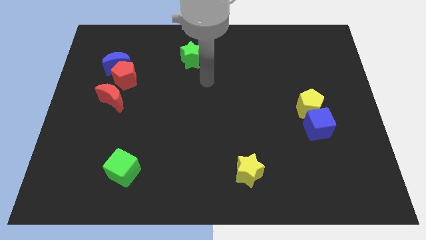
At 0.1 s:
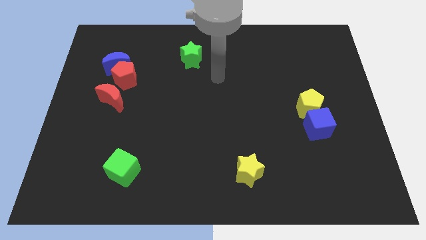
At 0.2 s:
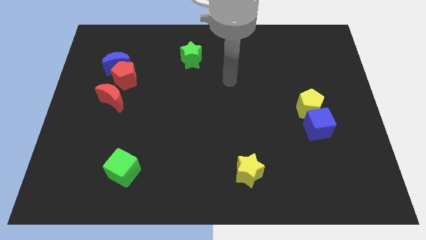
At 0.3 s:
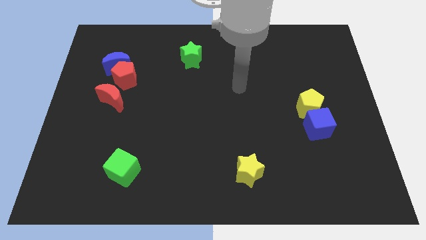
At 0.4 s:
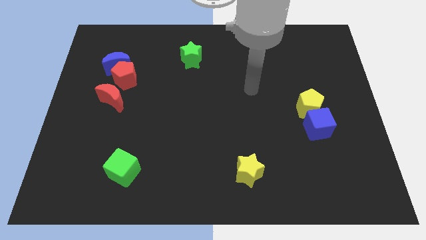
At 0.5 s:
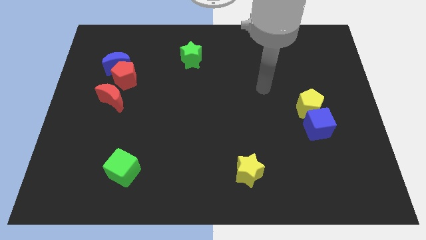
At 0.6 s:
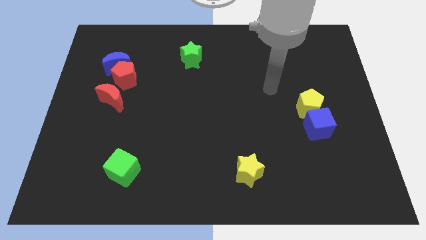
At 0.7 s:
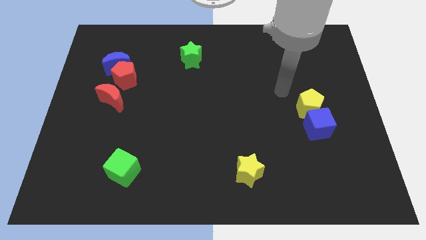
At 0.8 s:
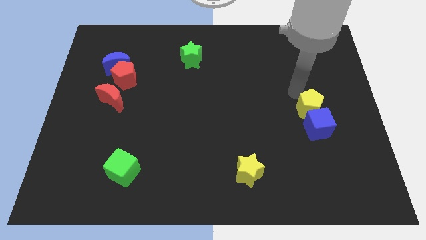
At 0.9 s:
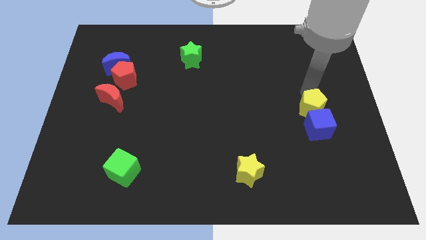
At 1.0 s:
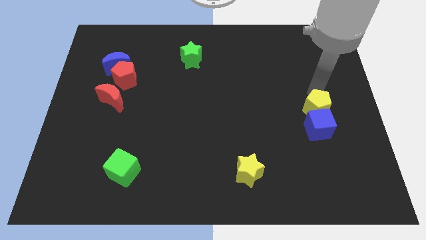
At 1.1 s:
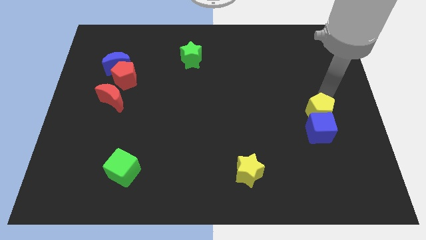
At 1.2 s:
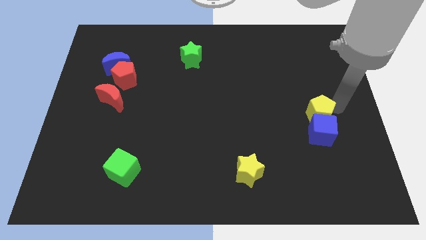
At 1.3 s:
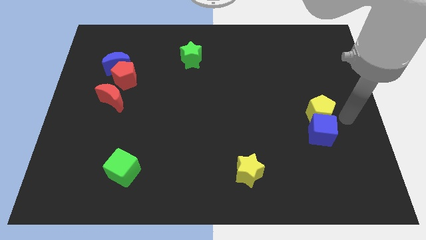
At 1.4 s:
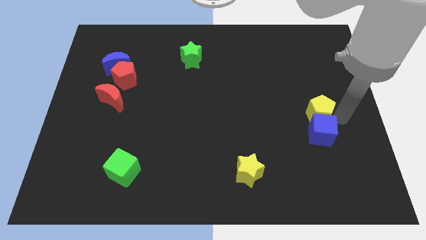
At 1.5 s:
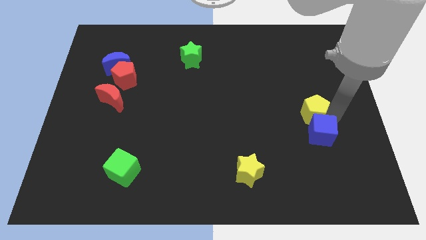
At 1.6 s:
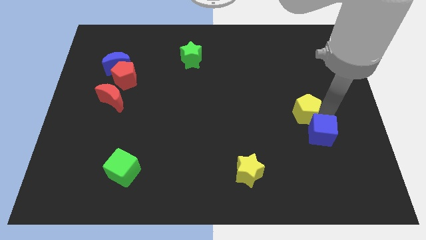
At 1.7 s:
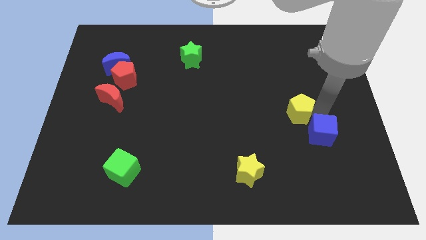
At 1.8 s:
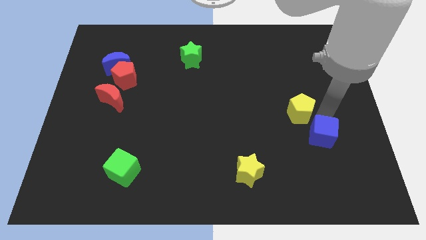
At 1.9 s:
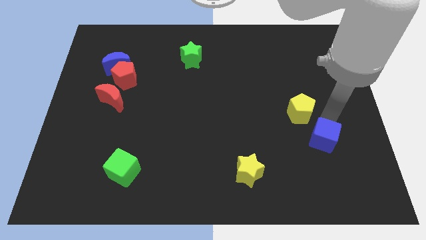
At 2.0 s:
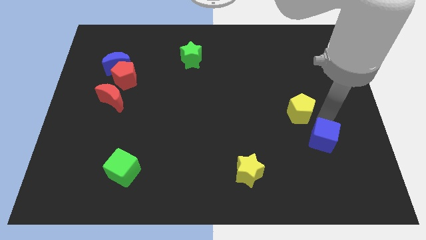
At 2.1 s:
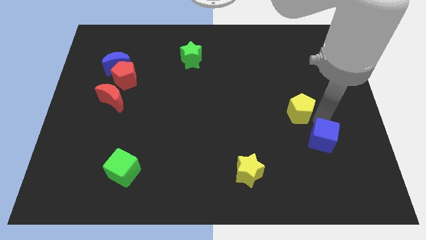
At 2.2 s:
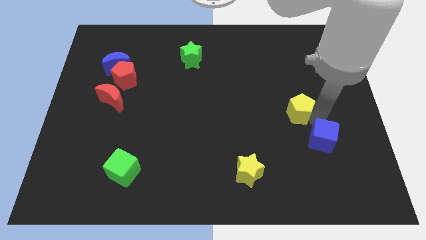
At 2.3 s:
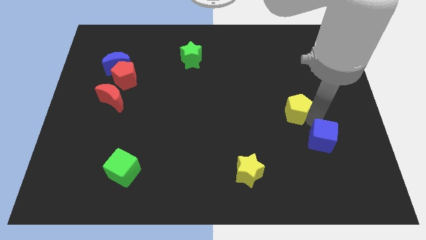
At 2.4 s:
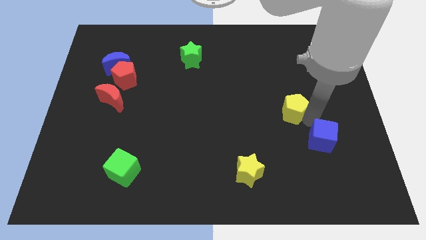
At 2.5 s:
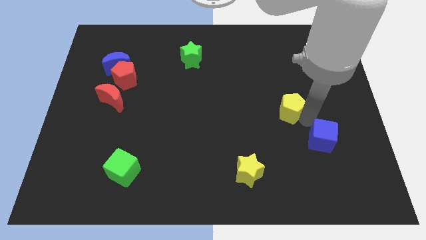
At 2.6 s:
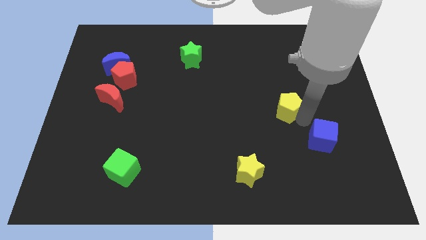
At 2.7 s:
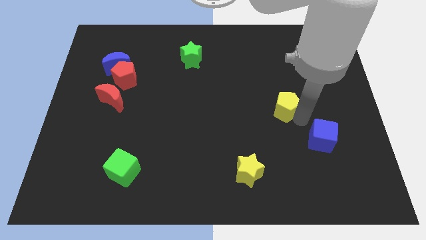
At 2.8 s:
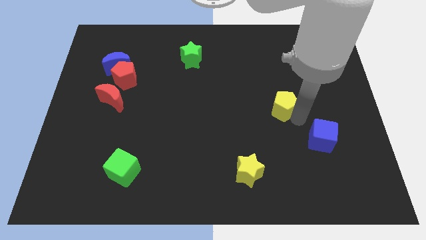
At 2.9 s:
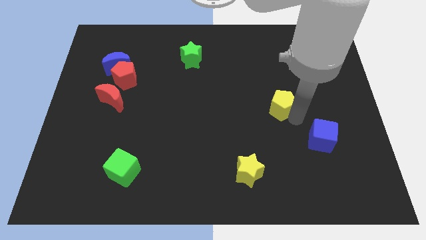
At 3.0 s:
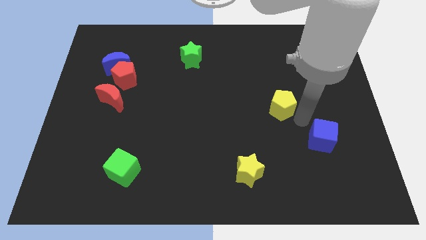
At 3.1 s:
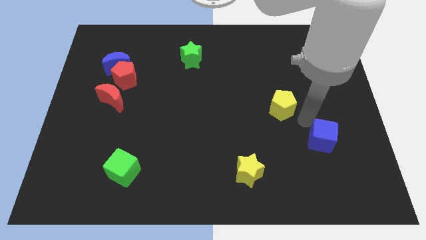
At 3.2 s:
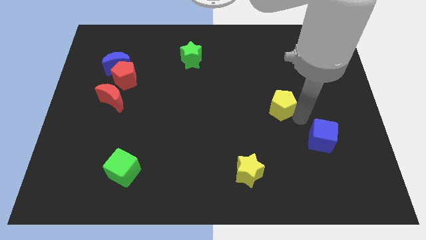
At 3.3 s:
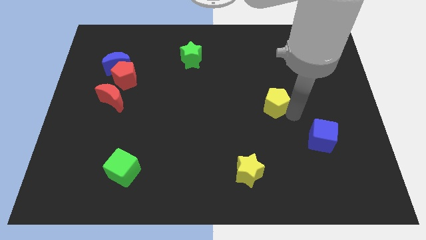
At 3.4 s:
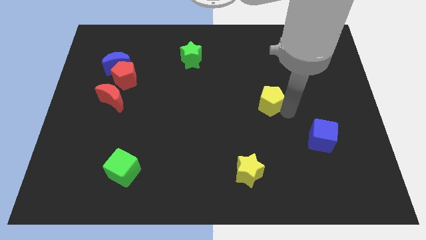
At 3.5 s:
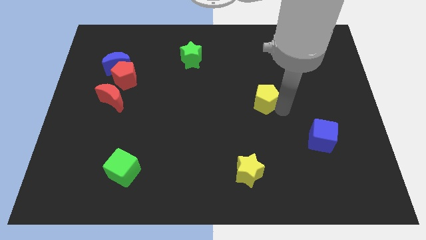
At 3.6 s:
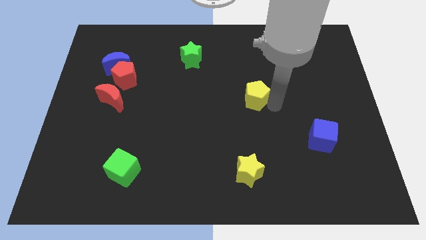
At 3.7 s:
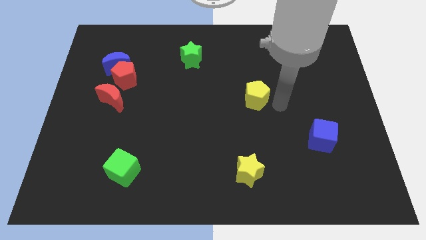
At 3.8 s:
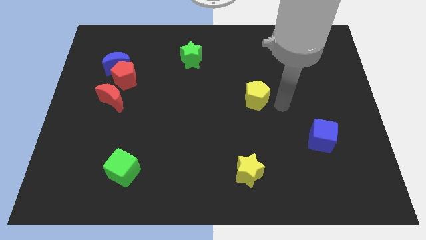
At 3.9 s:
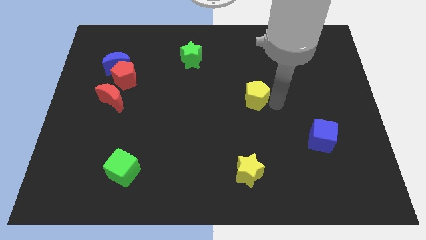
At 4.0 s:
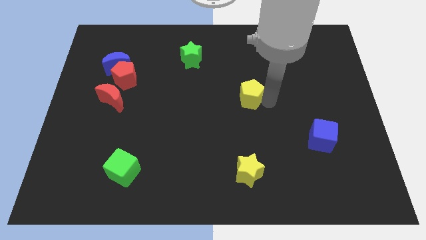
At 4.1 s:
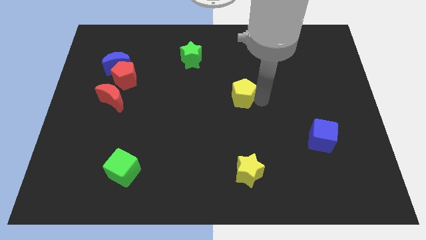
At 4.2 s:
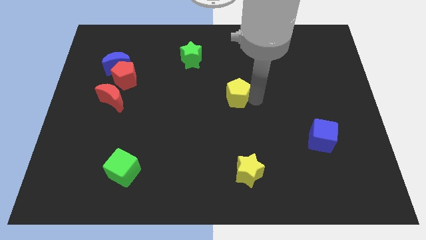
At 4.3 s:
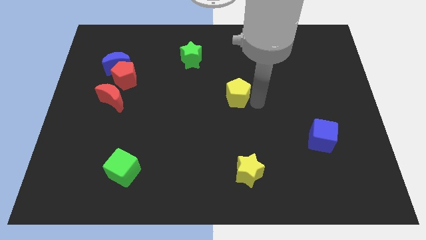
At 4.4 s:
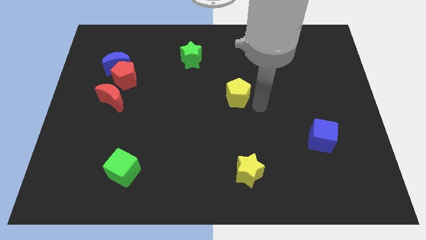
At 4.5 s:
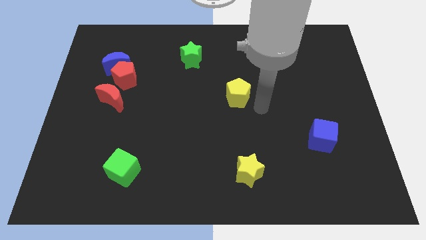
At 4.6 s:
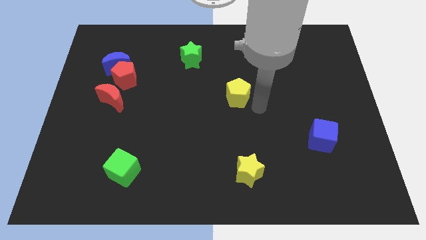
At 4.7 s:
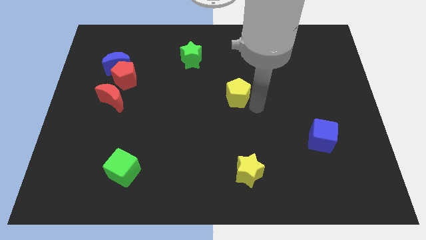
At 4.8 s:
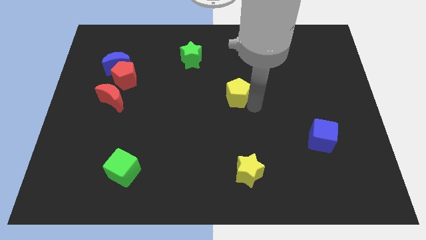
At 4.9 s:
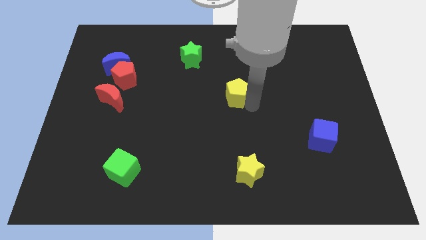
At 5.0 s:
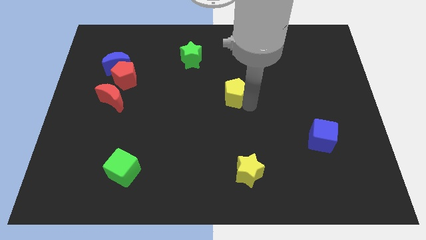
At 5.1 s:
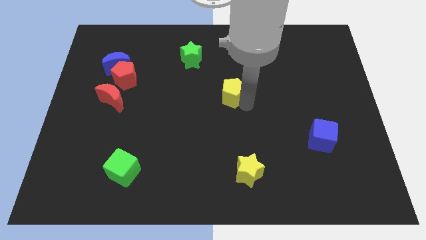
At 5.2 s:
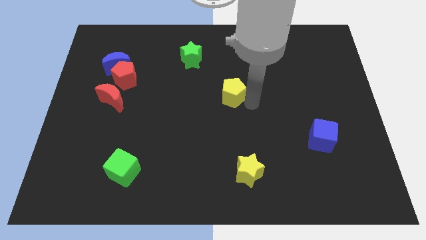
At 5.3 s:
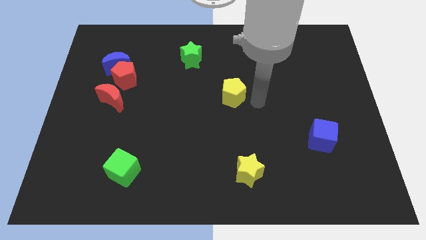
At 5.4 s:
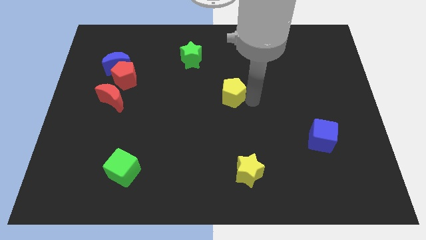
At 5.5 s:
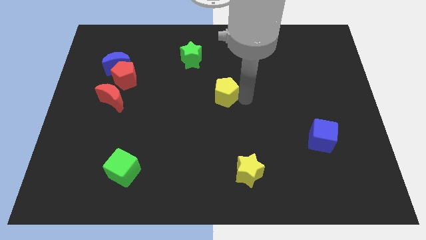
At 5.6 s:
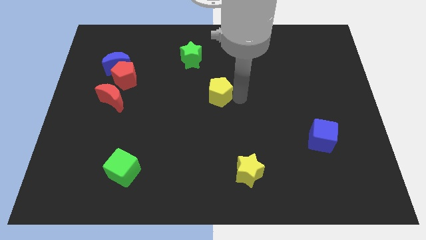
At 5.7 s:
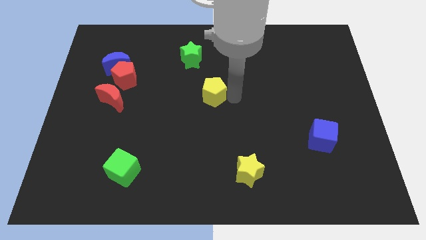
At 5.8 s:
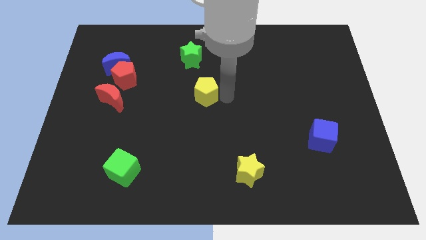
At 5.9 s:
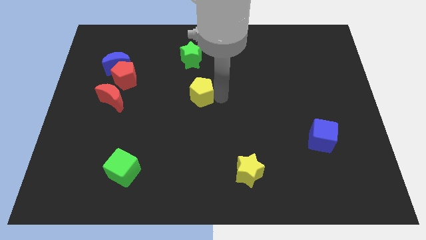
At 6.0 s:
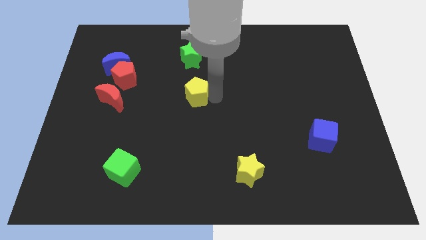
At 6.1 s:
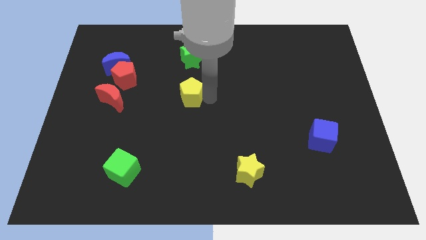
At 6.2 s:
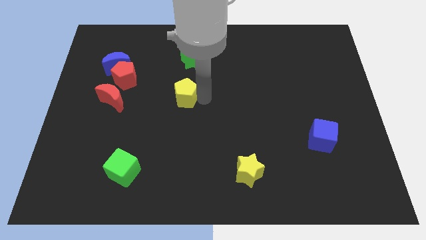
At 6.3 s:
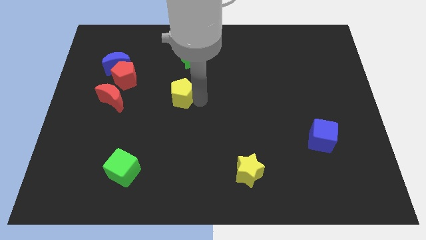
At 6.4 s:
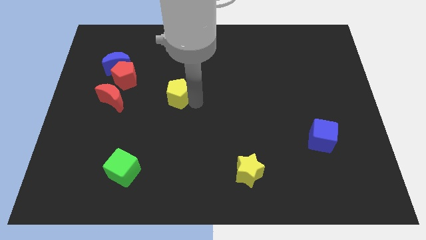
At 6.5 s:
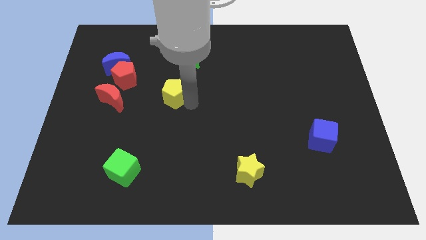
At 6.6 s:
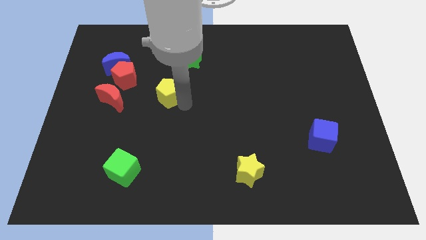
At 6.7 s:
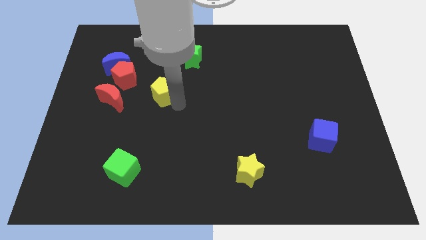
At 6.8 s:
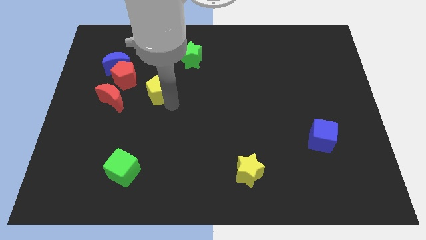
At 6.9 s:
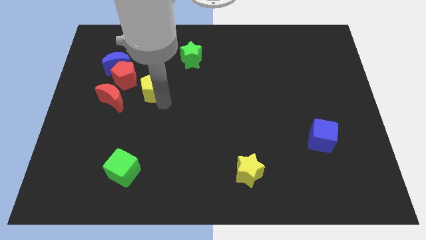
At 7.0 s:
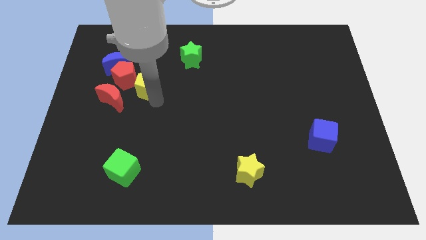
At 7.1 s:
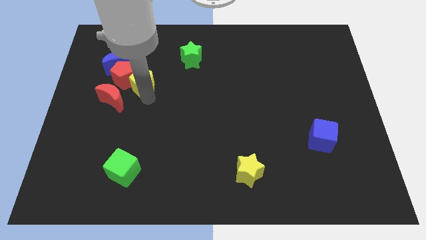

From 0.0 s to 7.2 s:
move the yellow pentagon next to the red pentagon
